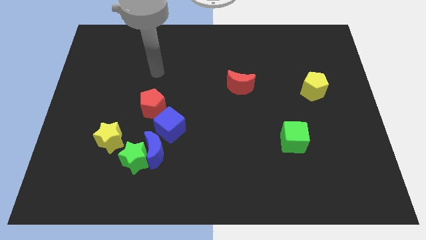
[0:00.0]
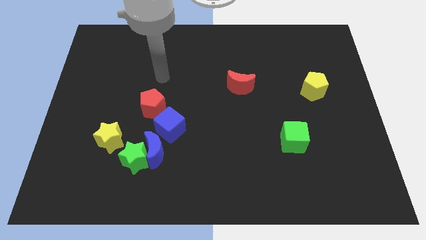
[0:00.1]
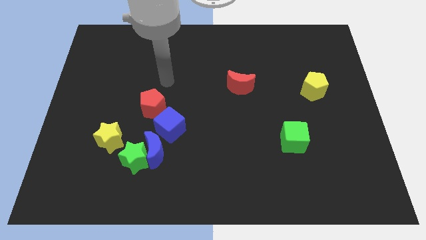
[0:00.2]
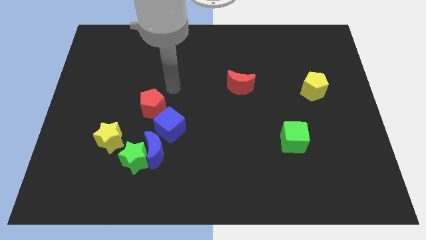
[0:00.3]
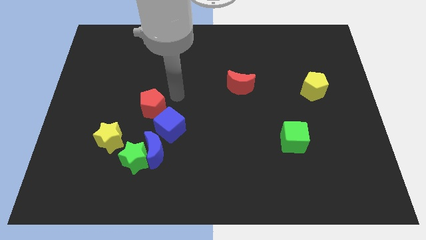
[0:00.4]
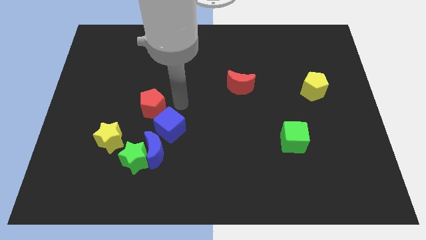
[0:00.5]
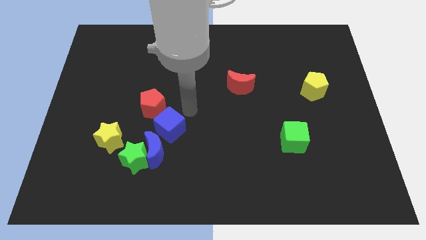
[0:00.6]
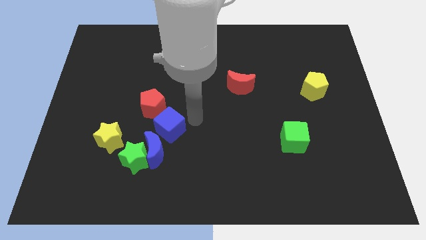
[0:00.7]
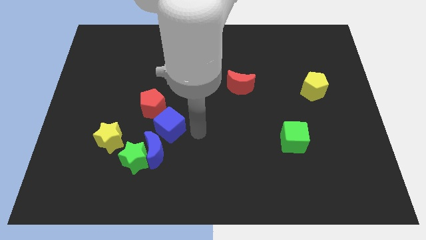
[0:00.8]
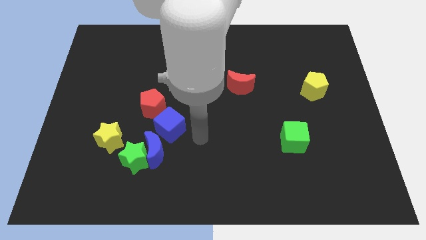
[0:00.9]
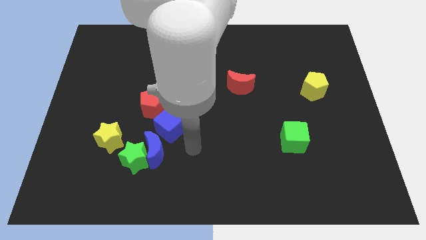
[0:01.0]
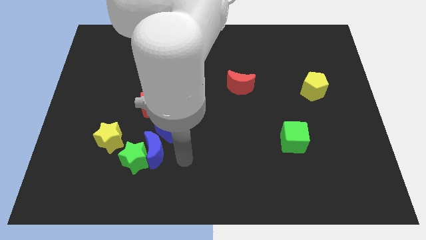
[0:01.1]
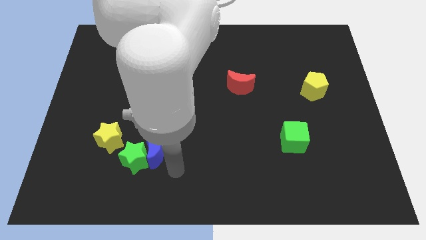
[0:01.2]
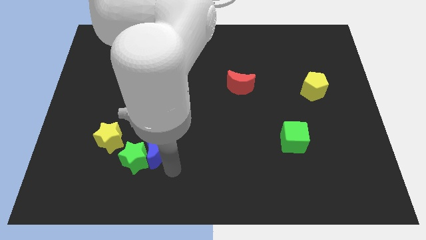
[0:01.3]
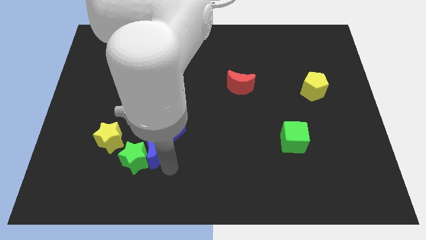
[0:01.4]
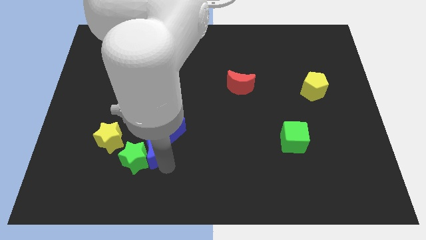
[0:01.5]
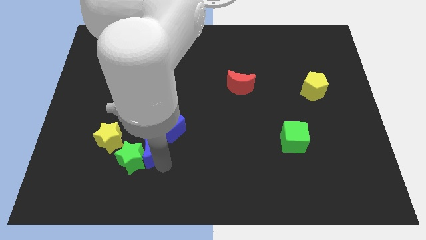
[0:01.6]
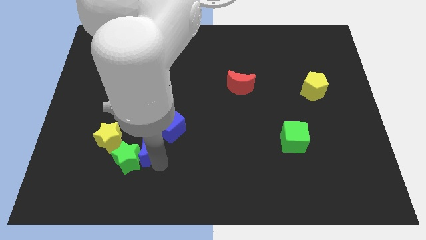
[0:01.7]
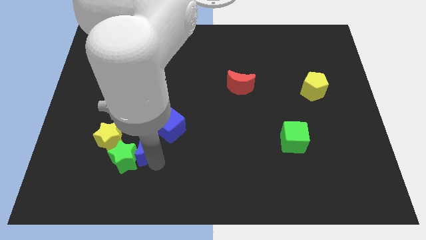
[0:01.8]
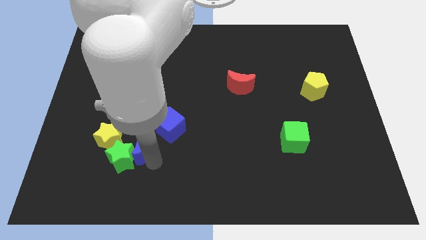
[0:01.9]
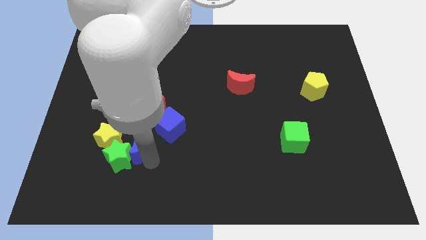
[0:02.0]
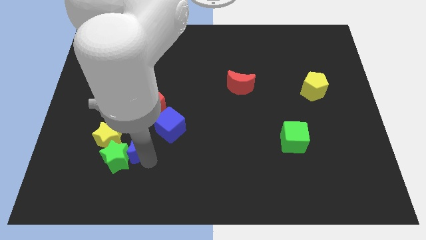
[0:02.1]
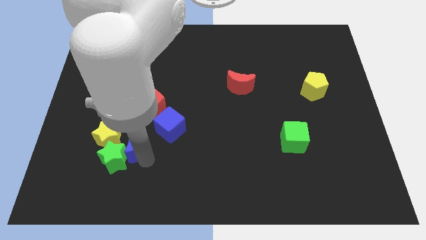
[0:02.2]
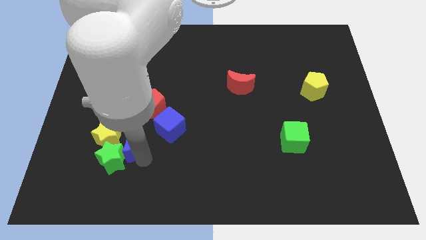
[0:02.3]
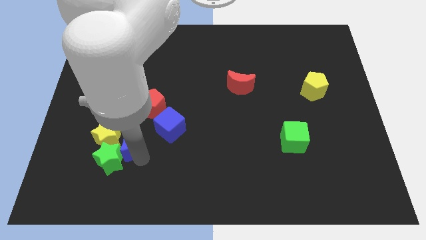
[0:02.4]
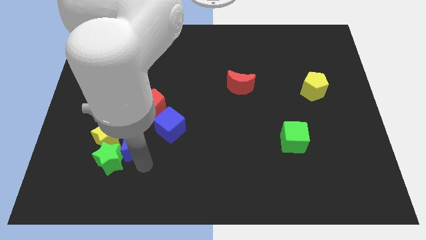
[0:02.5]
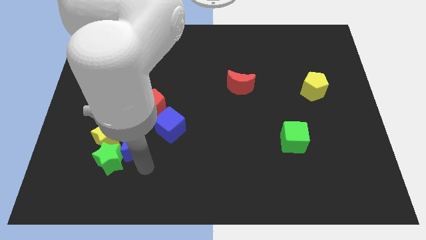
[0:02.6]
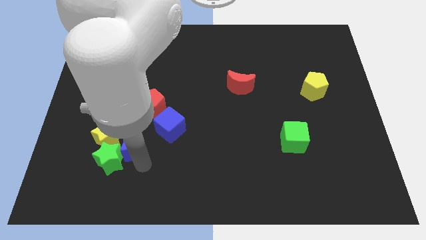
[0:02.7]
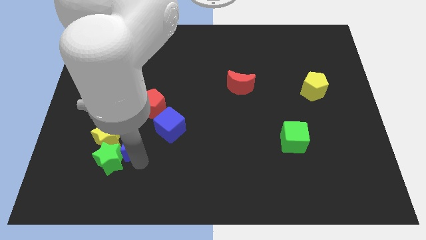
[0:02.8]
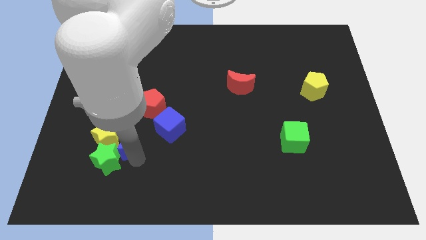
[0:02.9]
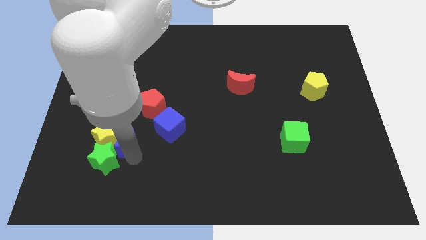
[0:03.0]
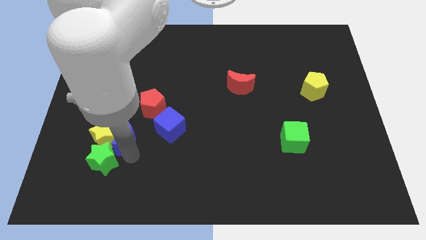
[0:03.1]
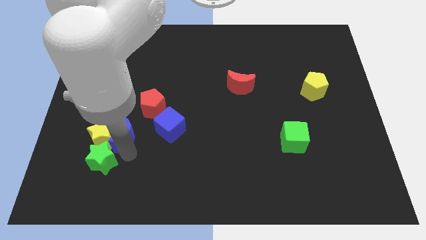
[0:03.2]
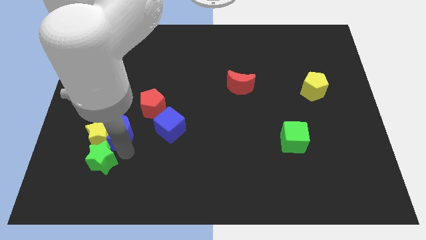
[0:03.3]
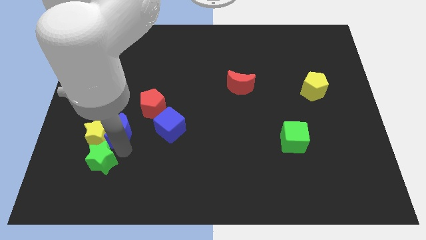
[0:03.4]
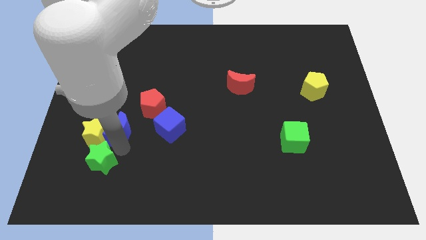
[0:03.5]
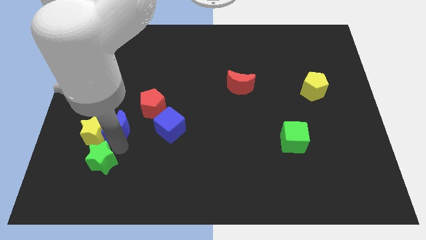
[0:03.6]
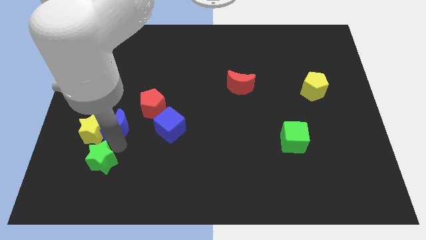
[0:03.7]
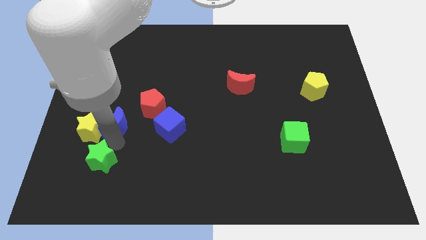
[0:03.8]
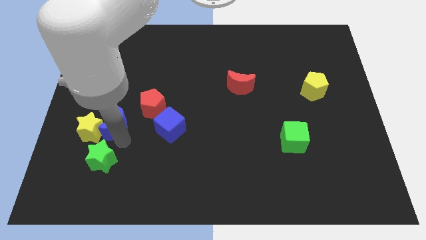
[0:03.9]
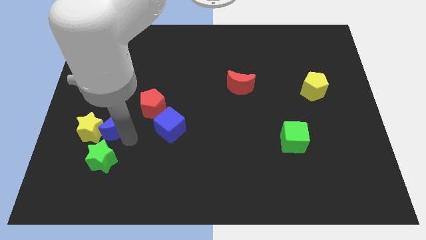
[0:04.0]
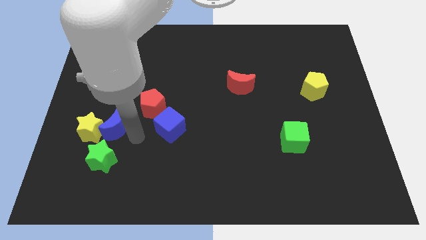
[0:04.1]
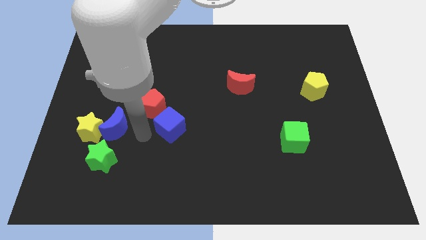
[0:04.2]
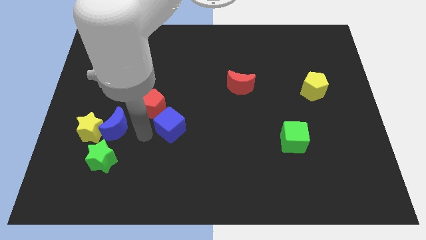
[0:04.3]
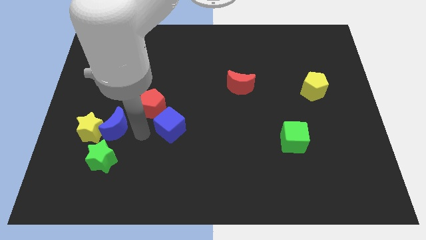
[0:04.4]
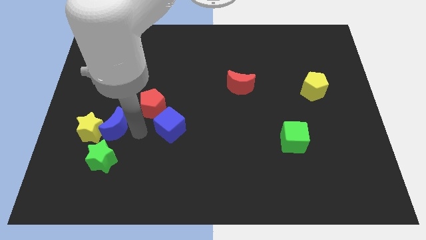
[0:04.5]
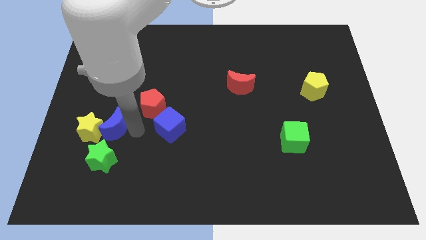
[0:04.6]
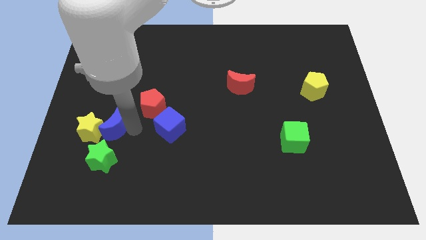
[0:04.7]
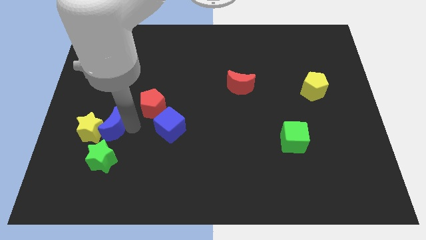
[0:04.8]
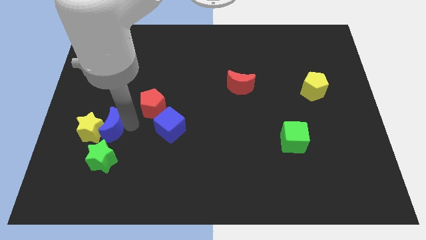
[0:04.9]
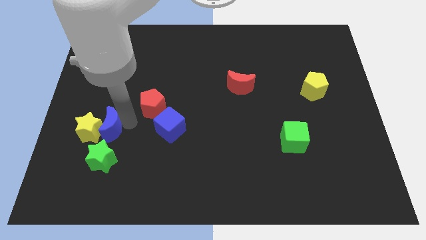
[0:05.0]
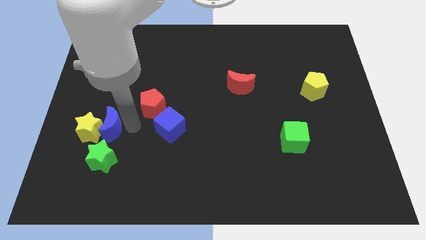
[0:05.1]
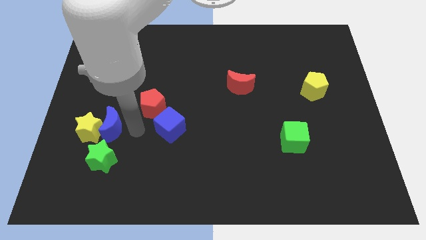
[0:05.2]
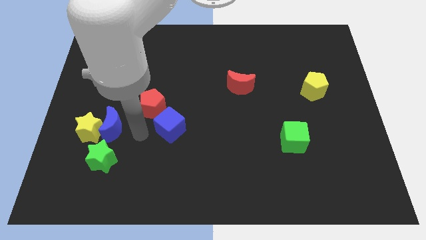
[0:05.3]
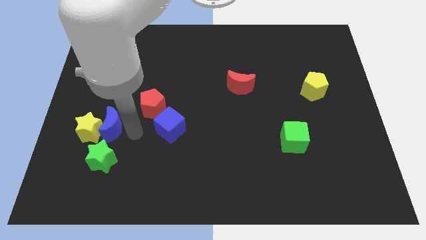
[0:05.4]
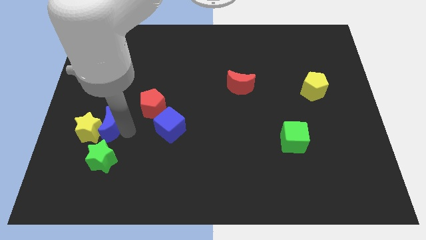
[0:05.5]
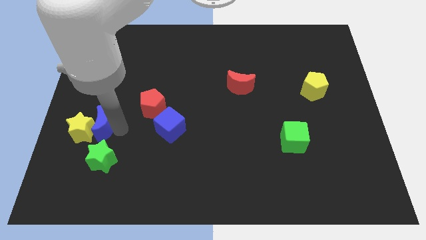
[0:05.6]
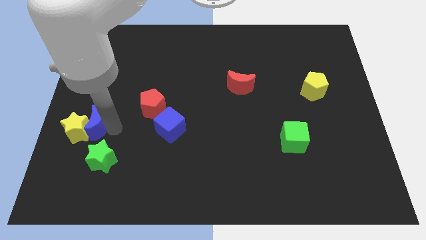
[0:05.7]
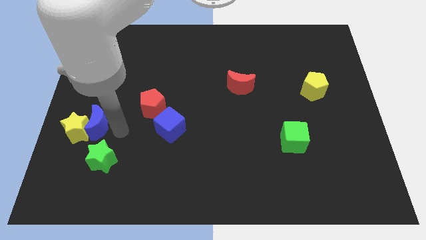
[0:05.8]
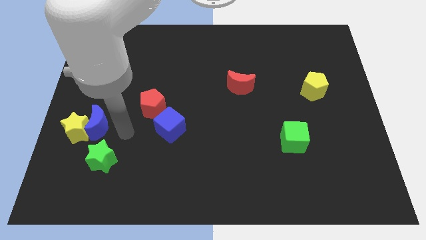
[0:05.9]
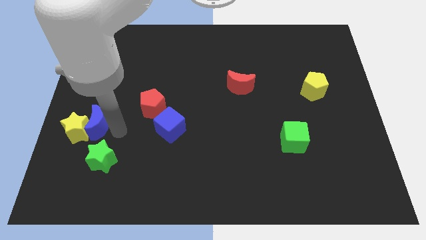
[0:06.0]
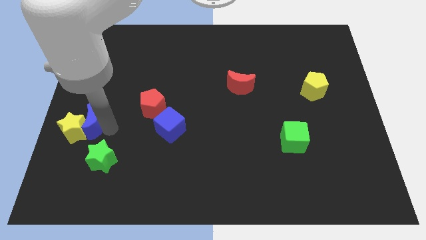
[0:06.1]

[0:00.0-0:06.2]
put the blue moon to the center left
